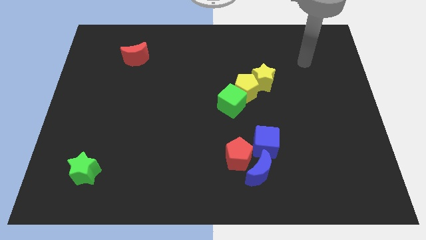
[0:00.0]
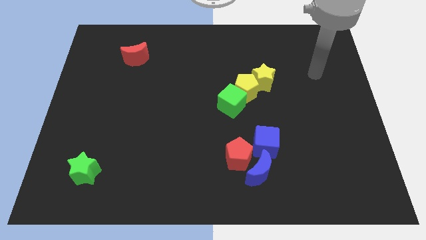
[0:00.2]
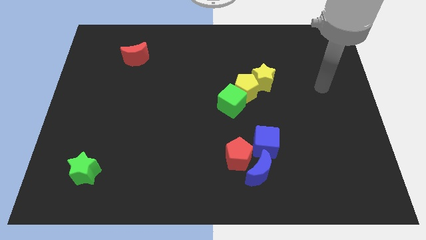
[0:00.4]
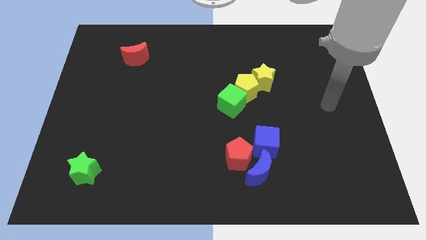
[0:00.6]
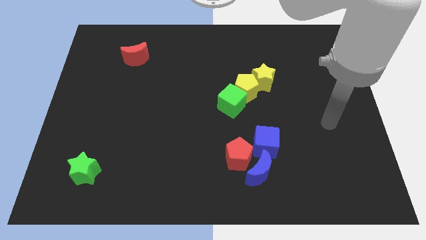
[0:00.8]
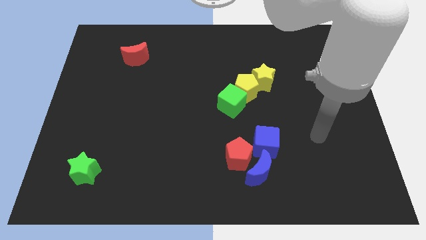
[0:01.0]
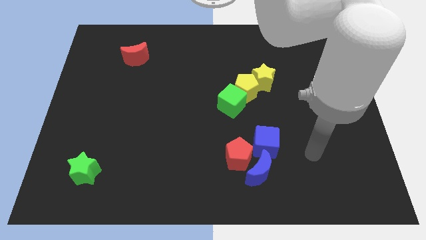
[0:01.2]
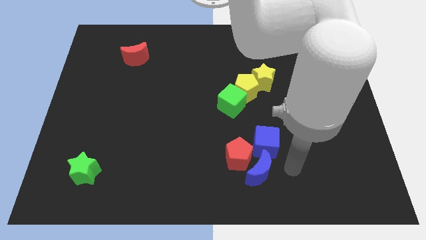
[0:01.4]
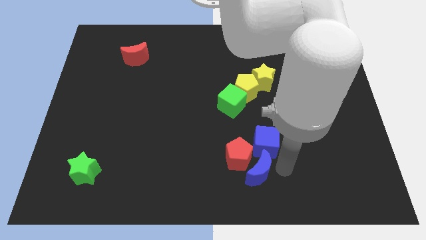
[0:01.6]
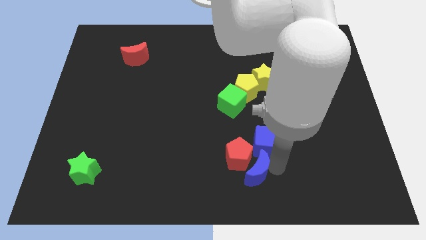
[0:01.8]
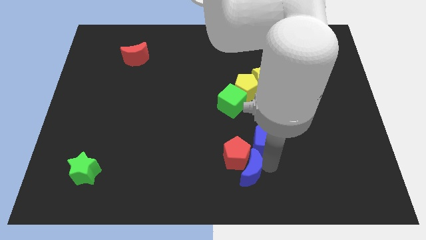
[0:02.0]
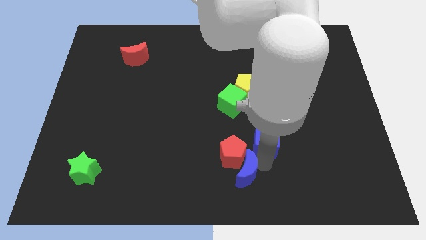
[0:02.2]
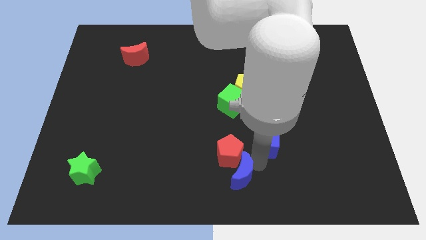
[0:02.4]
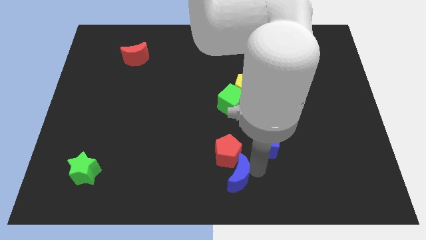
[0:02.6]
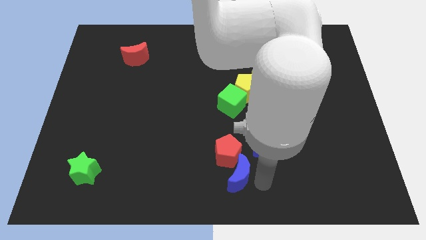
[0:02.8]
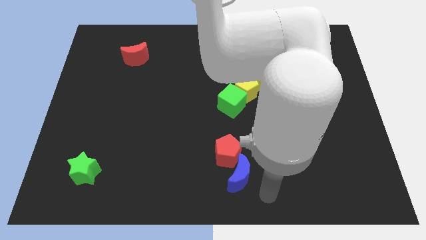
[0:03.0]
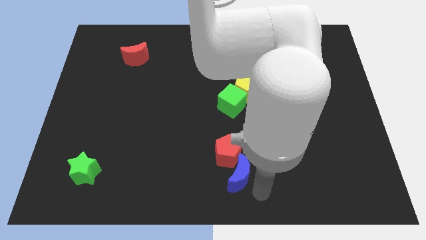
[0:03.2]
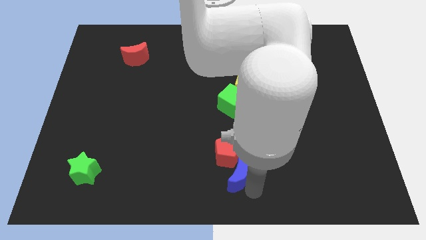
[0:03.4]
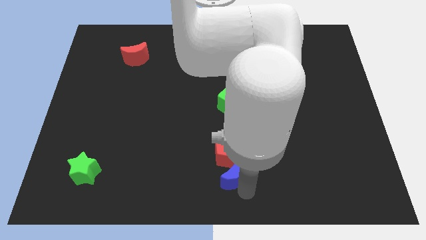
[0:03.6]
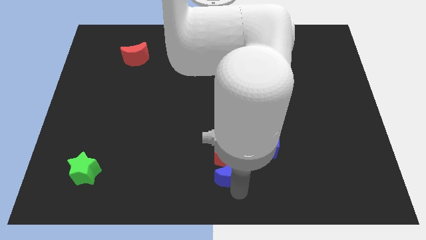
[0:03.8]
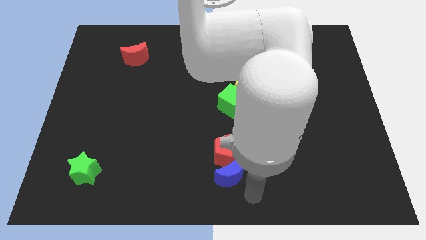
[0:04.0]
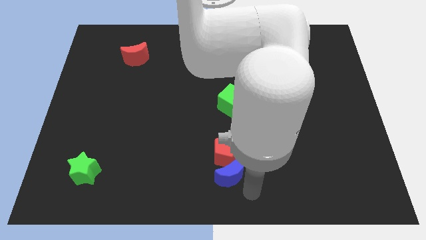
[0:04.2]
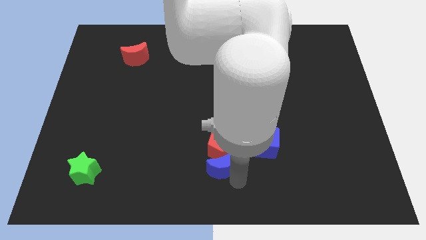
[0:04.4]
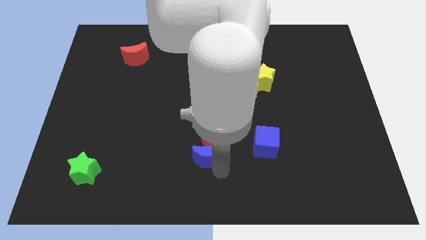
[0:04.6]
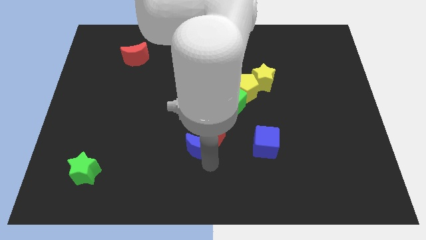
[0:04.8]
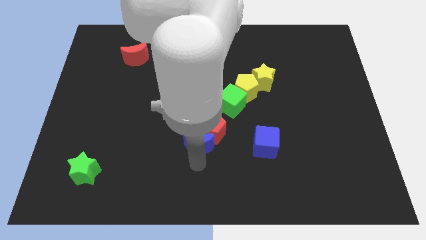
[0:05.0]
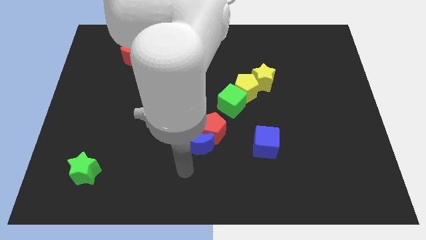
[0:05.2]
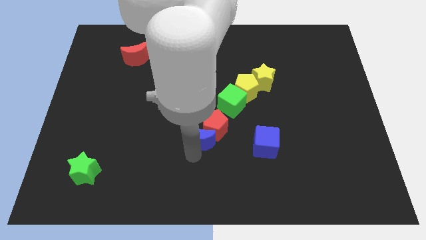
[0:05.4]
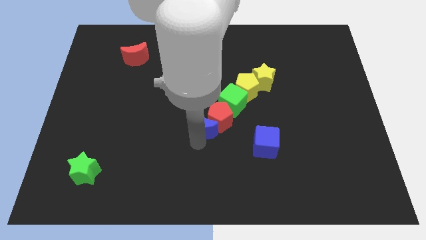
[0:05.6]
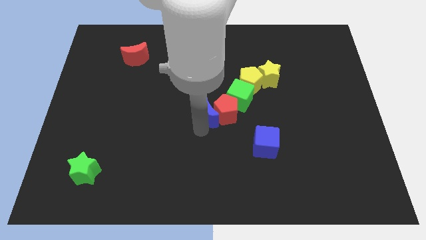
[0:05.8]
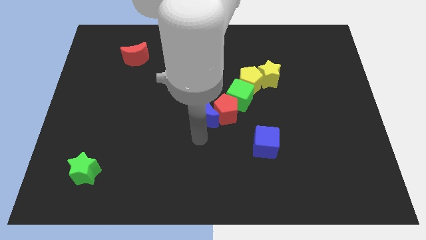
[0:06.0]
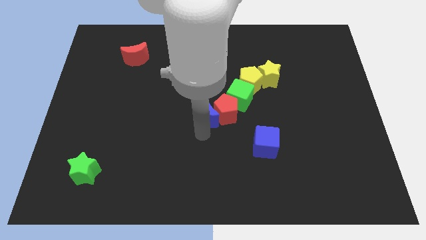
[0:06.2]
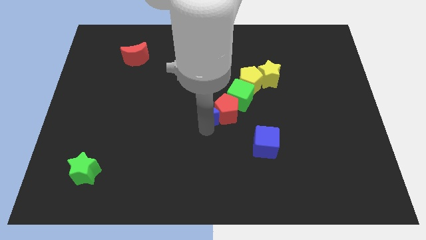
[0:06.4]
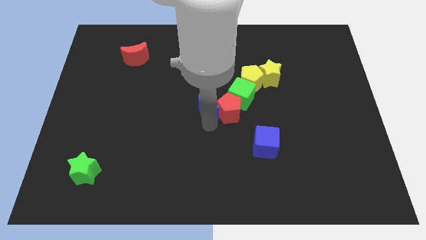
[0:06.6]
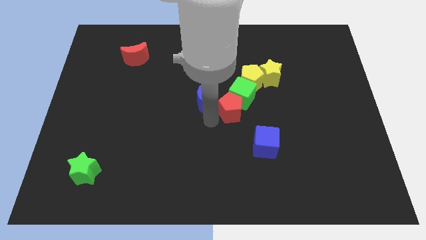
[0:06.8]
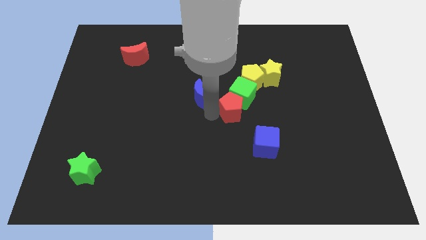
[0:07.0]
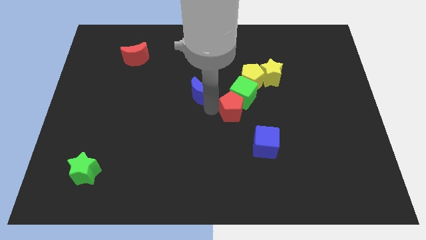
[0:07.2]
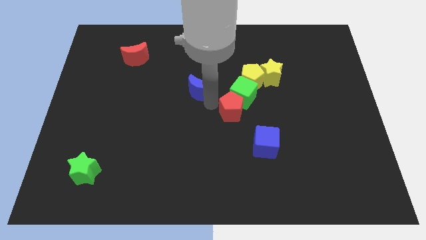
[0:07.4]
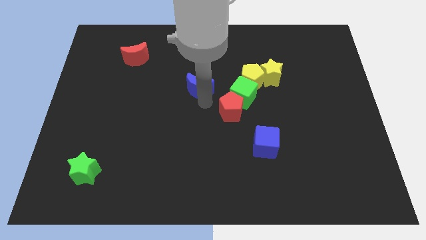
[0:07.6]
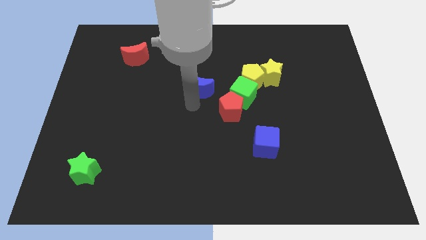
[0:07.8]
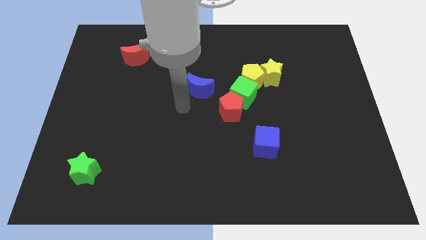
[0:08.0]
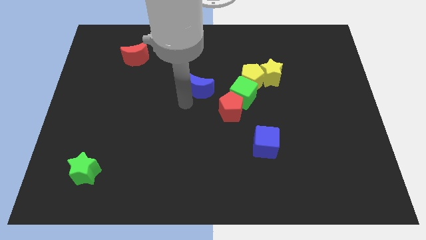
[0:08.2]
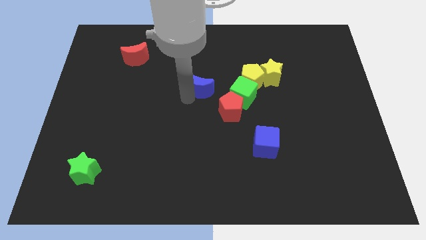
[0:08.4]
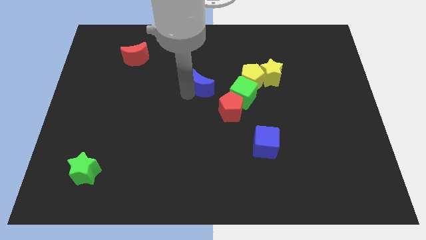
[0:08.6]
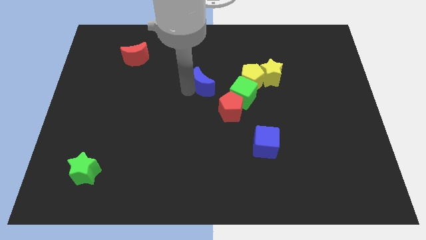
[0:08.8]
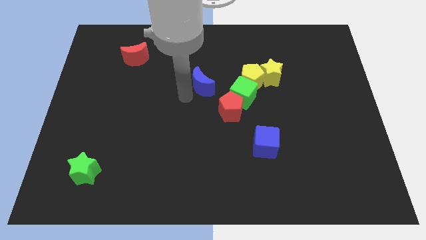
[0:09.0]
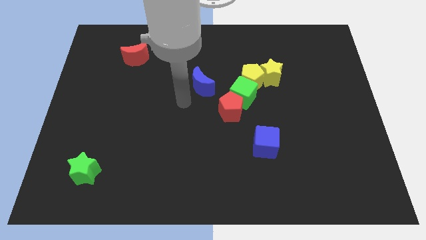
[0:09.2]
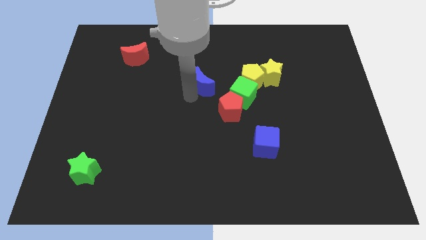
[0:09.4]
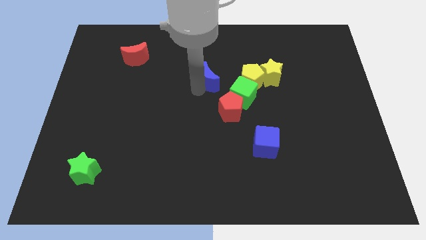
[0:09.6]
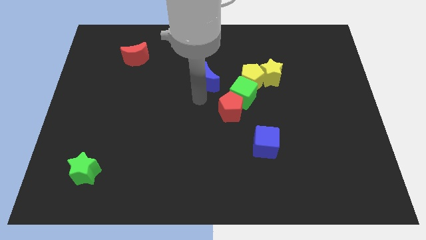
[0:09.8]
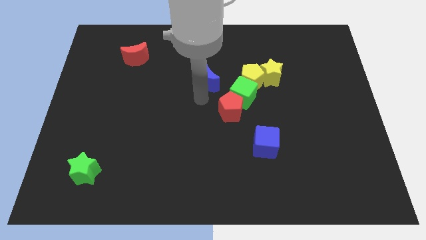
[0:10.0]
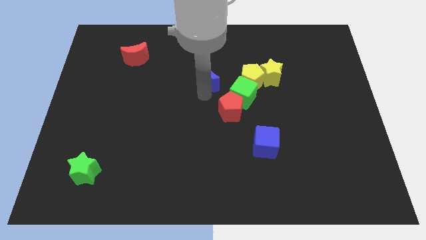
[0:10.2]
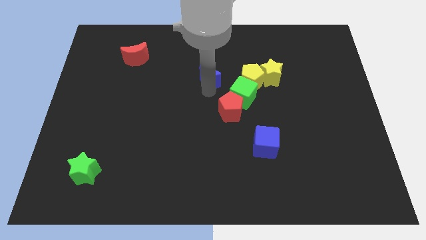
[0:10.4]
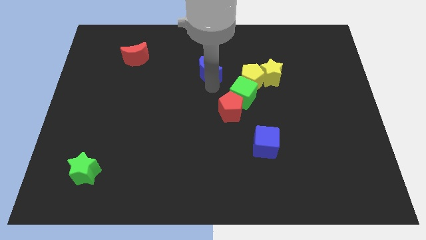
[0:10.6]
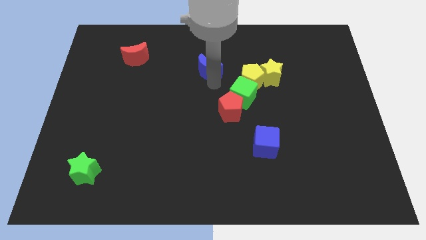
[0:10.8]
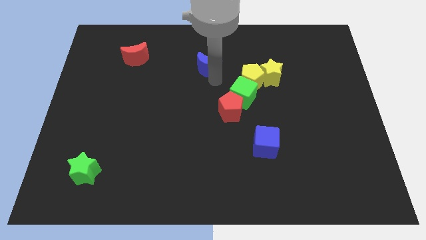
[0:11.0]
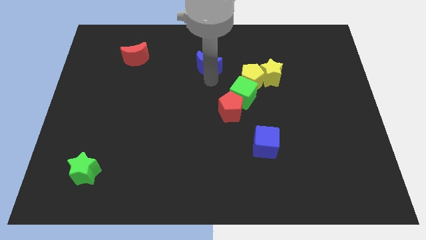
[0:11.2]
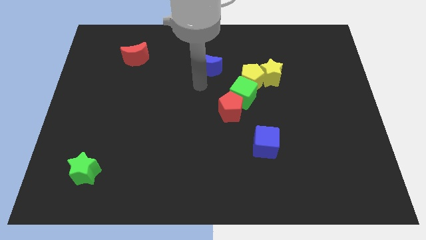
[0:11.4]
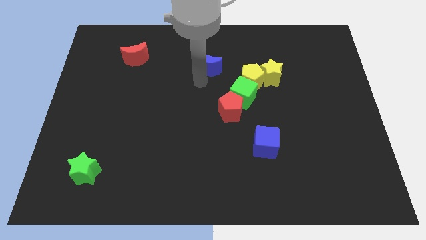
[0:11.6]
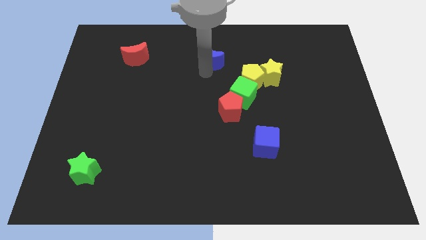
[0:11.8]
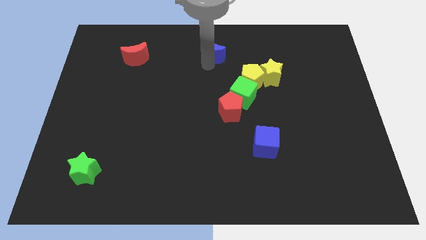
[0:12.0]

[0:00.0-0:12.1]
slide the blue moon to the top
